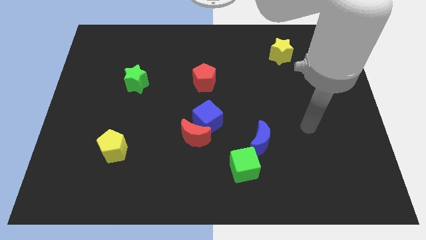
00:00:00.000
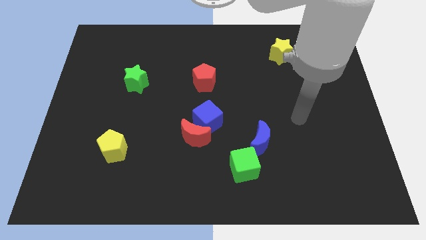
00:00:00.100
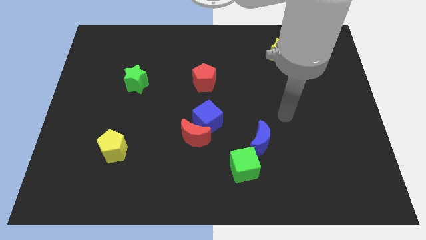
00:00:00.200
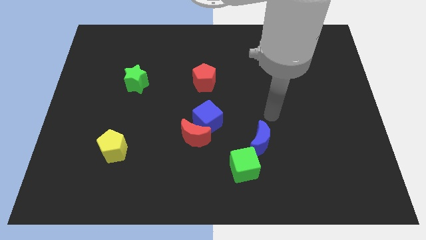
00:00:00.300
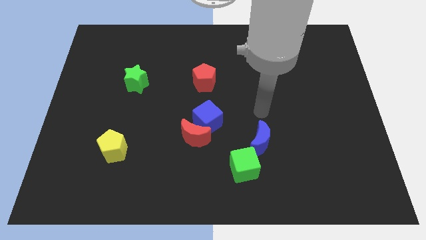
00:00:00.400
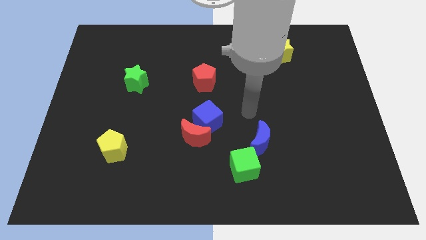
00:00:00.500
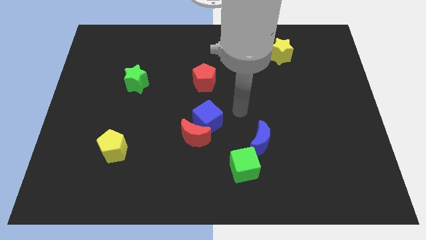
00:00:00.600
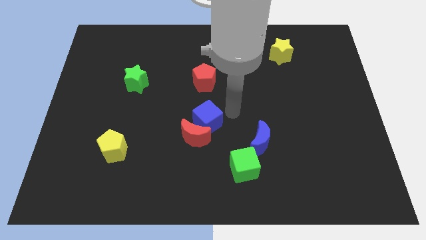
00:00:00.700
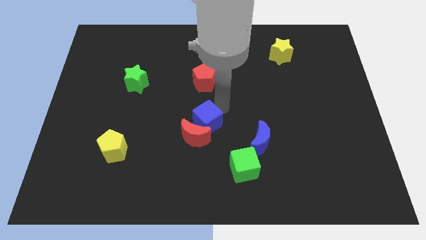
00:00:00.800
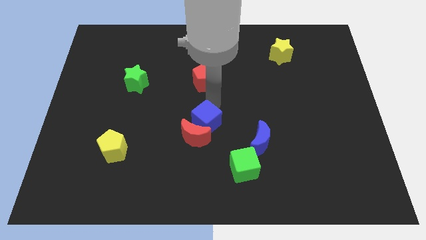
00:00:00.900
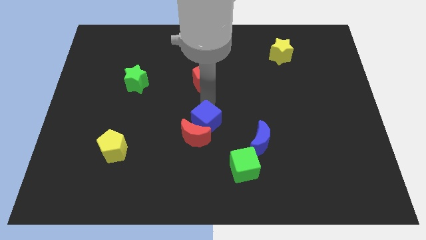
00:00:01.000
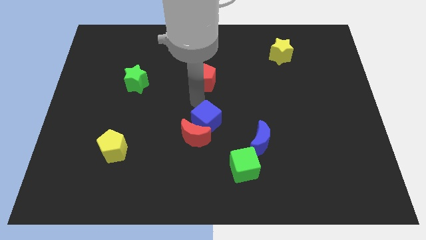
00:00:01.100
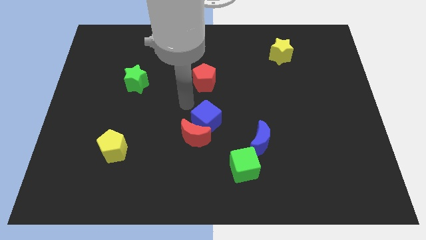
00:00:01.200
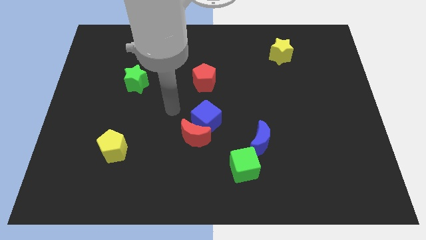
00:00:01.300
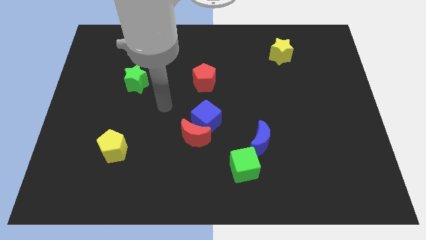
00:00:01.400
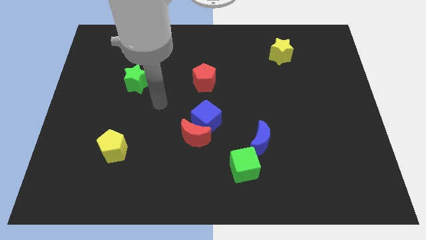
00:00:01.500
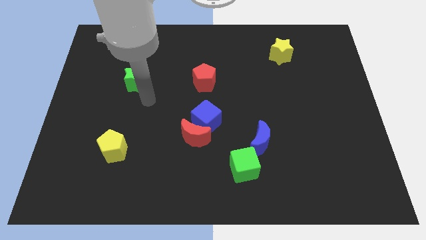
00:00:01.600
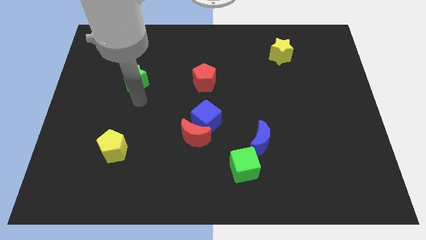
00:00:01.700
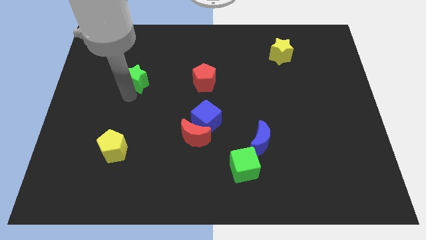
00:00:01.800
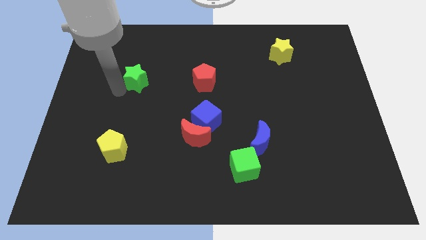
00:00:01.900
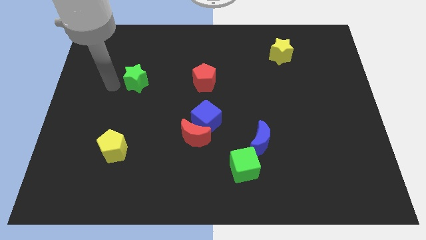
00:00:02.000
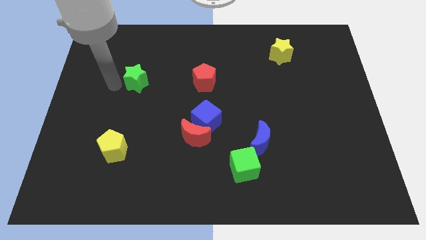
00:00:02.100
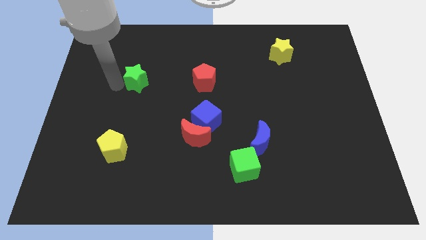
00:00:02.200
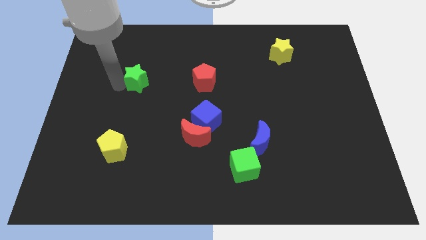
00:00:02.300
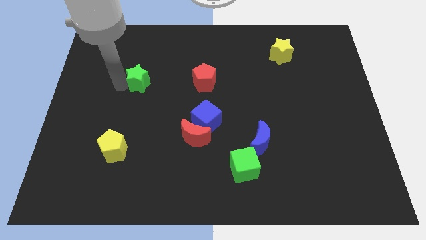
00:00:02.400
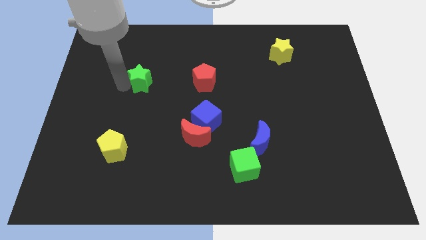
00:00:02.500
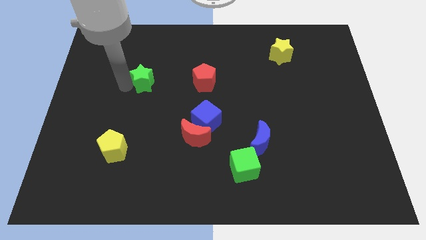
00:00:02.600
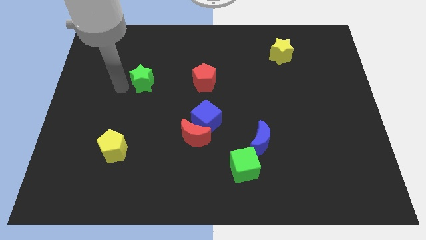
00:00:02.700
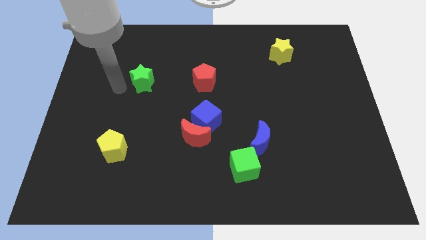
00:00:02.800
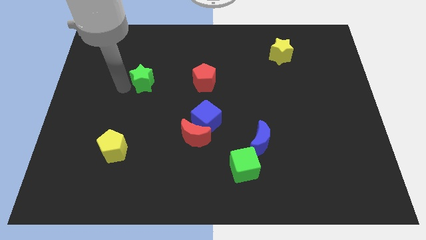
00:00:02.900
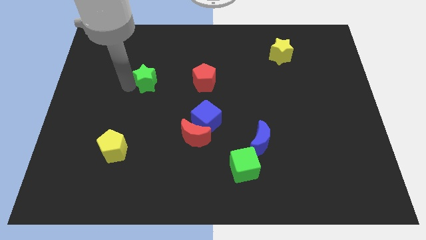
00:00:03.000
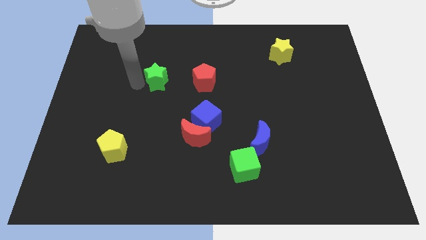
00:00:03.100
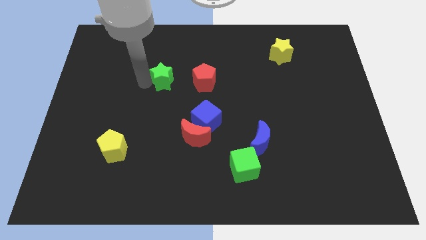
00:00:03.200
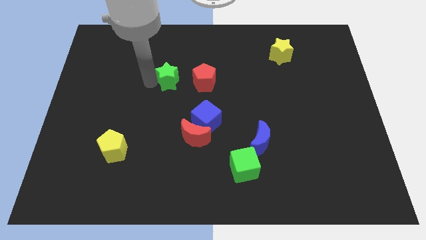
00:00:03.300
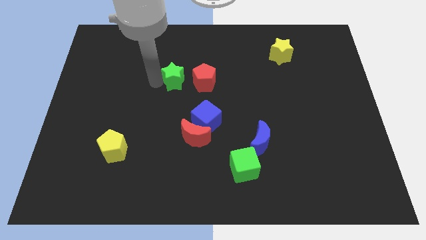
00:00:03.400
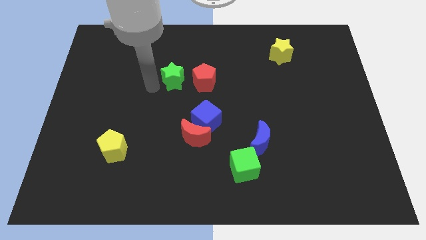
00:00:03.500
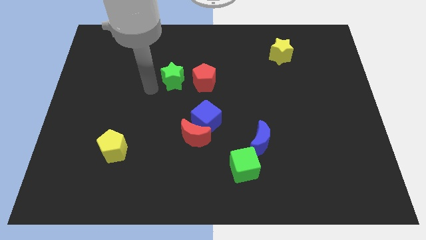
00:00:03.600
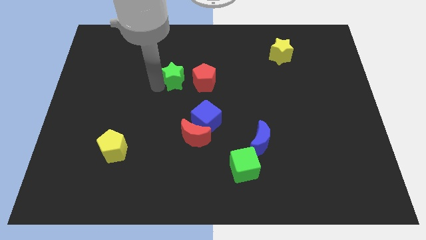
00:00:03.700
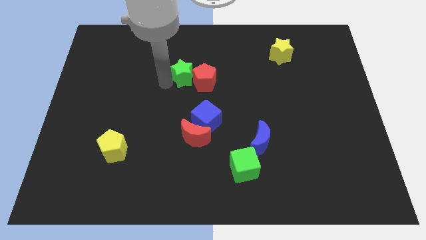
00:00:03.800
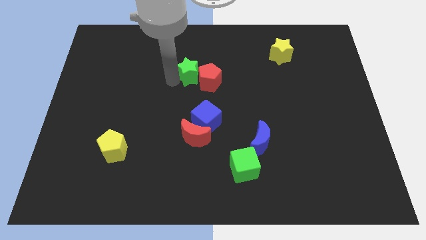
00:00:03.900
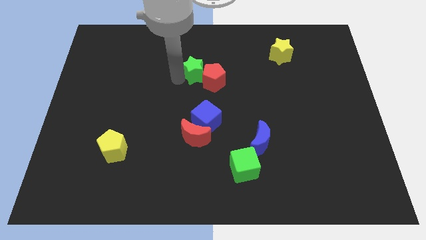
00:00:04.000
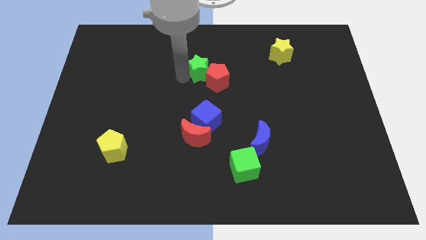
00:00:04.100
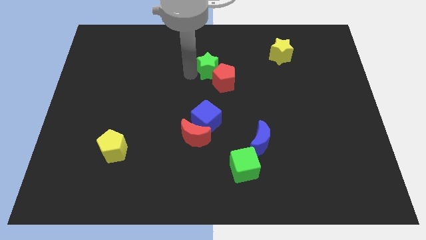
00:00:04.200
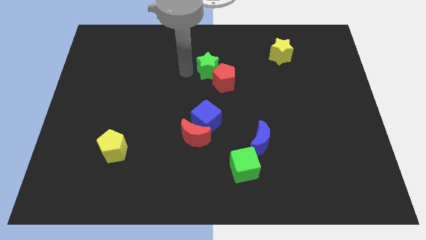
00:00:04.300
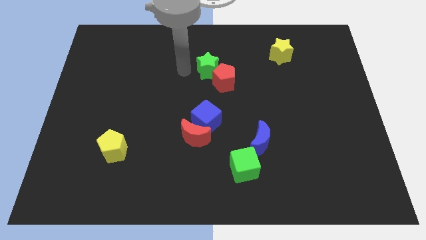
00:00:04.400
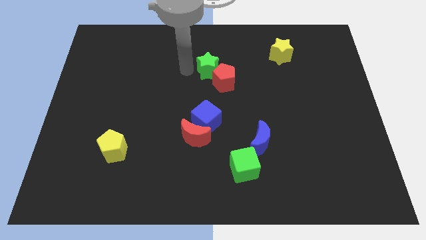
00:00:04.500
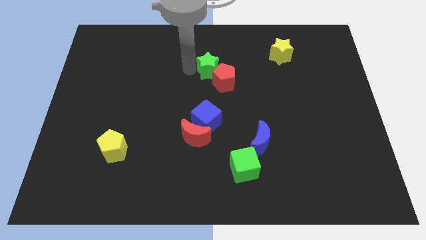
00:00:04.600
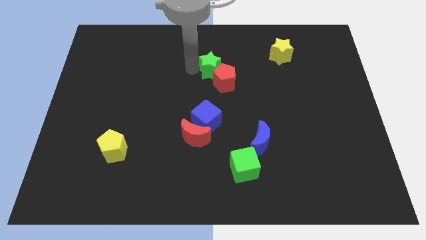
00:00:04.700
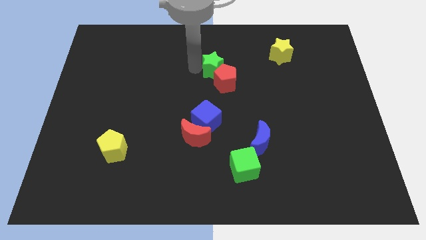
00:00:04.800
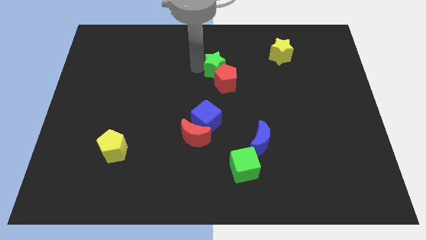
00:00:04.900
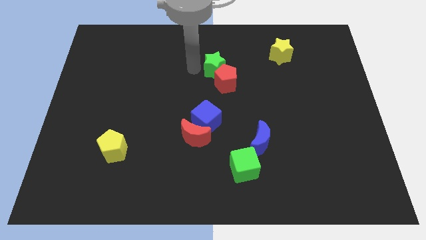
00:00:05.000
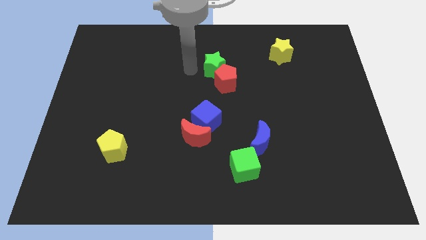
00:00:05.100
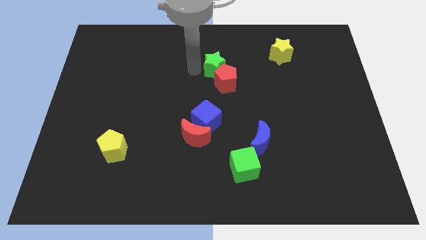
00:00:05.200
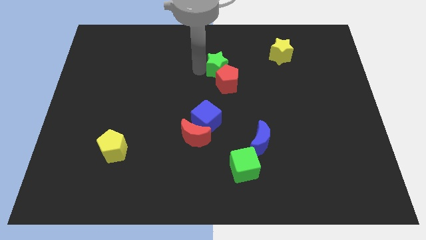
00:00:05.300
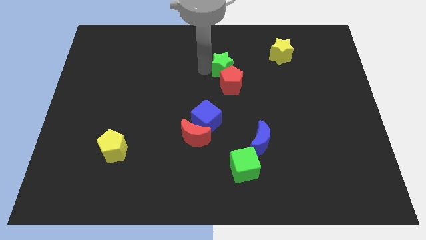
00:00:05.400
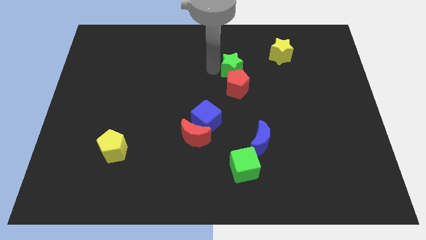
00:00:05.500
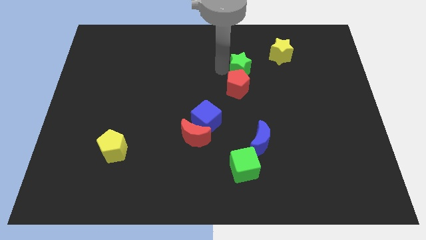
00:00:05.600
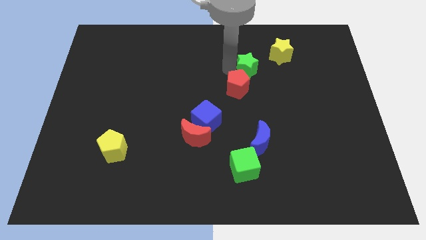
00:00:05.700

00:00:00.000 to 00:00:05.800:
push the green star to the bottom left of the yellow star

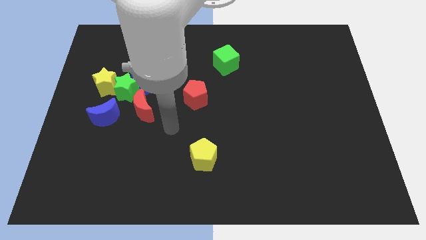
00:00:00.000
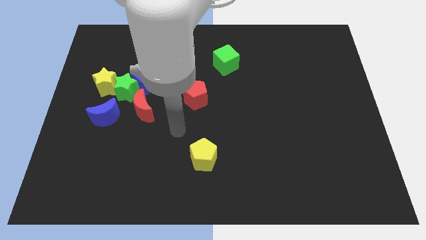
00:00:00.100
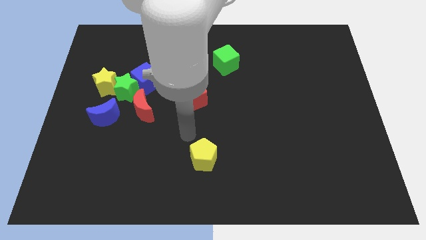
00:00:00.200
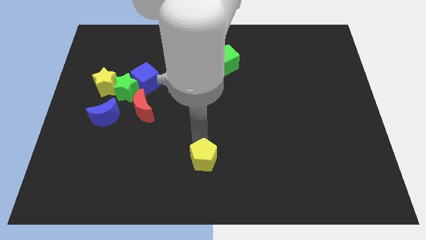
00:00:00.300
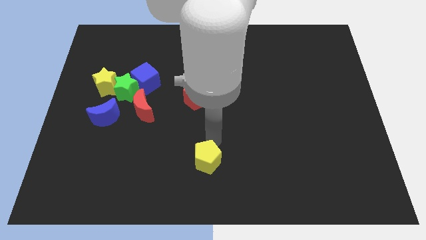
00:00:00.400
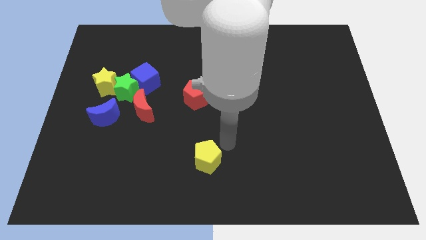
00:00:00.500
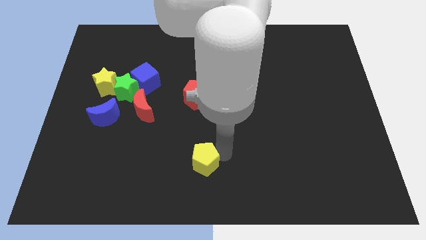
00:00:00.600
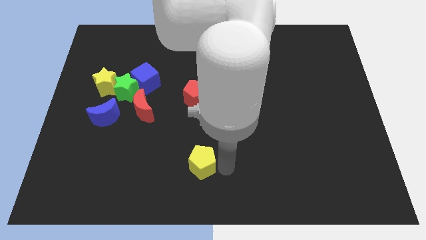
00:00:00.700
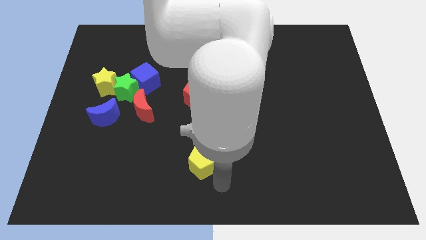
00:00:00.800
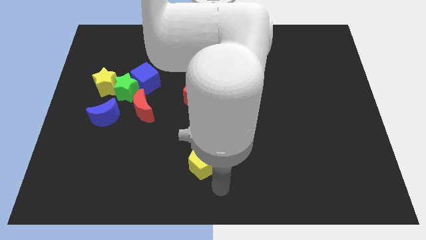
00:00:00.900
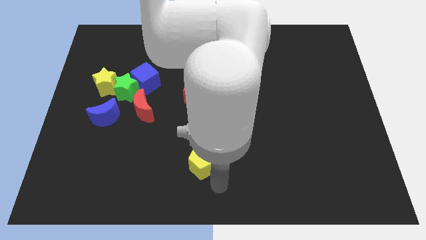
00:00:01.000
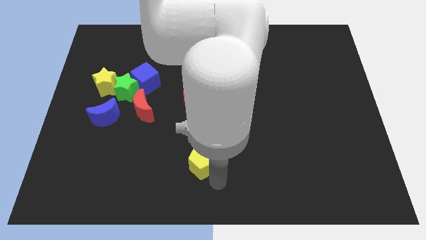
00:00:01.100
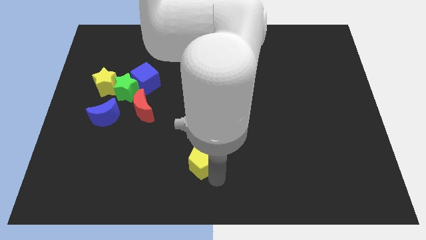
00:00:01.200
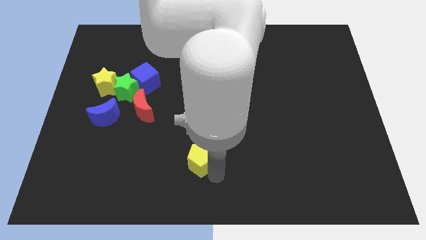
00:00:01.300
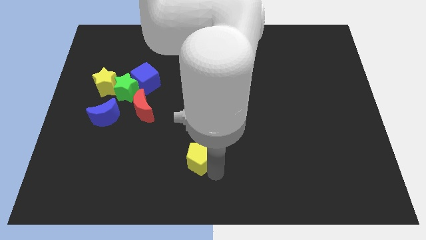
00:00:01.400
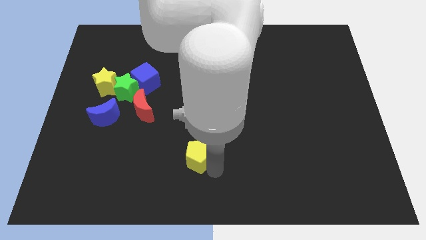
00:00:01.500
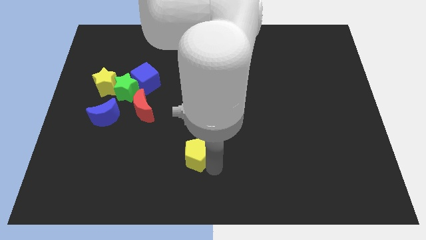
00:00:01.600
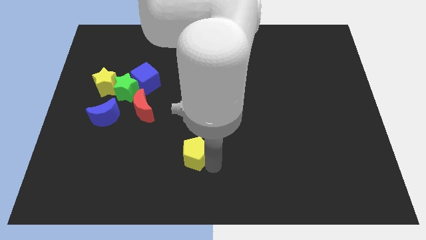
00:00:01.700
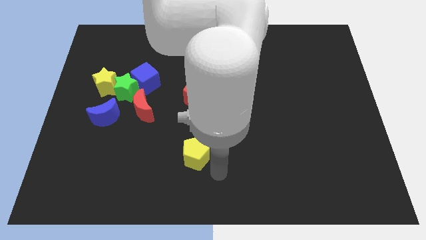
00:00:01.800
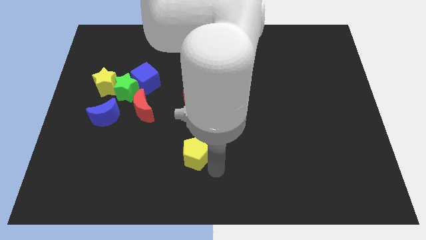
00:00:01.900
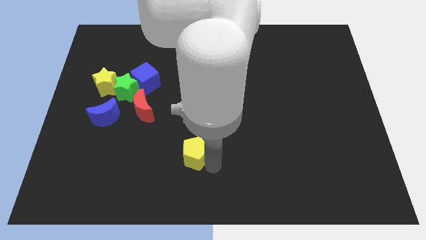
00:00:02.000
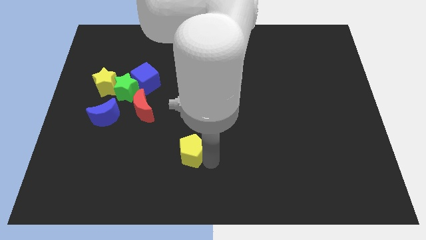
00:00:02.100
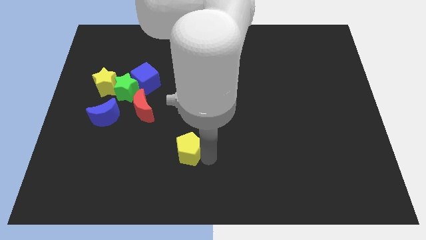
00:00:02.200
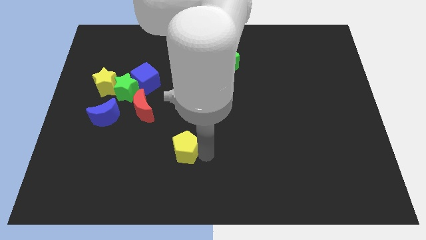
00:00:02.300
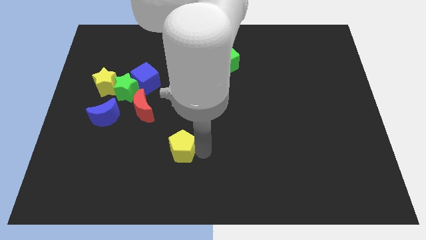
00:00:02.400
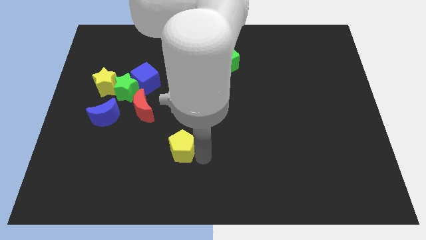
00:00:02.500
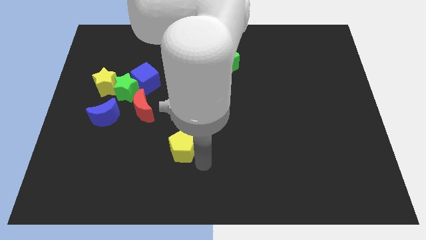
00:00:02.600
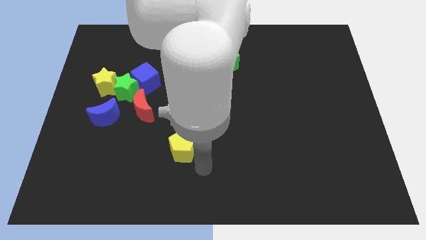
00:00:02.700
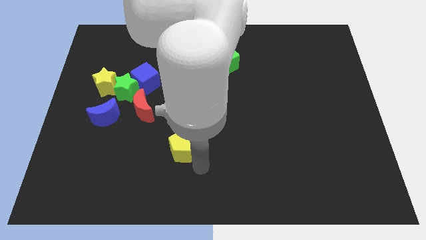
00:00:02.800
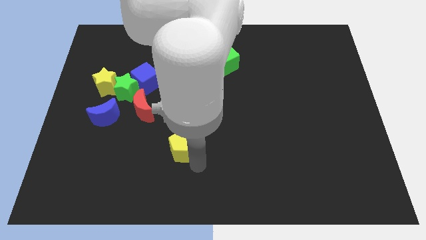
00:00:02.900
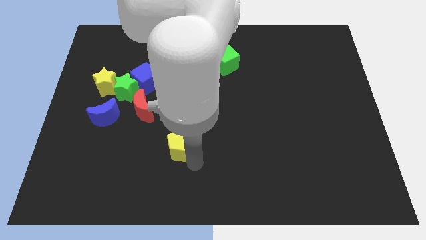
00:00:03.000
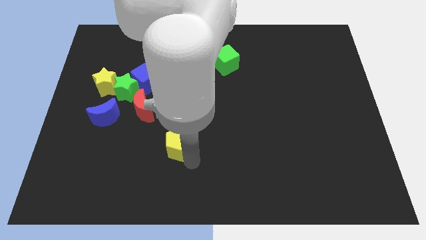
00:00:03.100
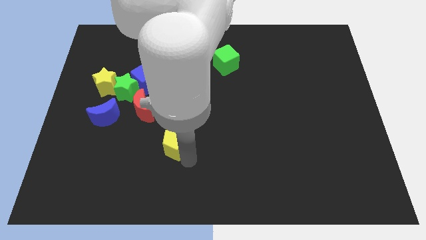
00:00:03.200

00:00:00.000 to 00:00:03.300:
push the yellow pentagon diagonally down and to the right of the red moon
